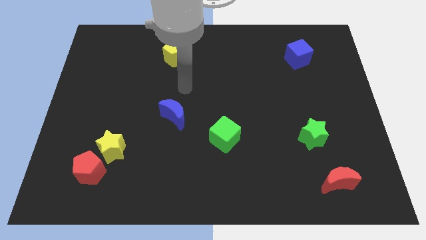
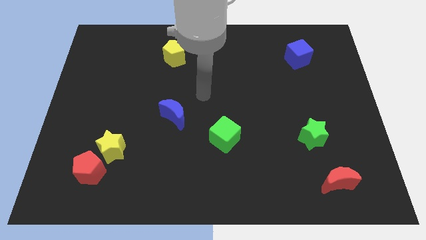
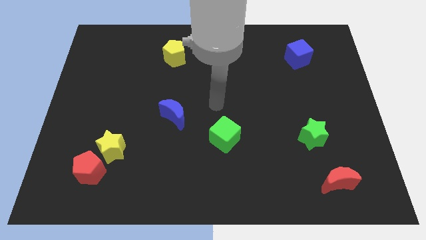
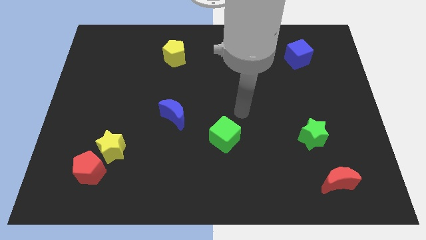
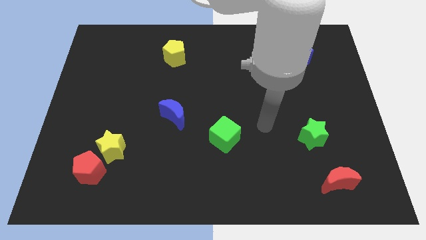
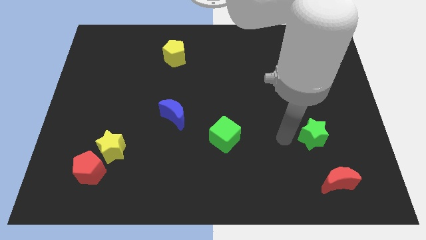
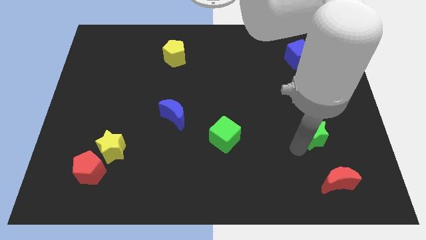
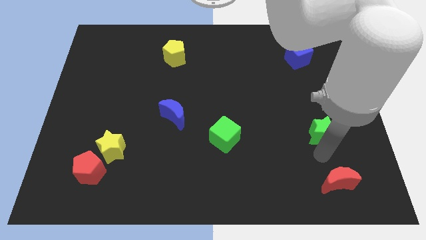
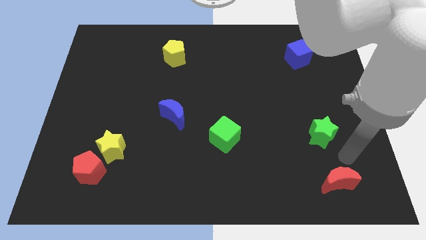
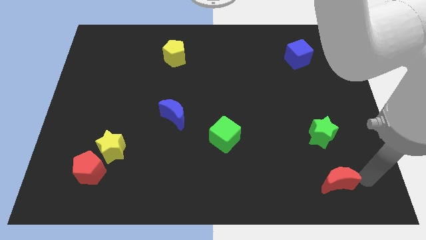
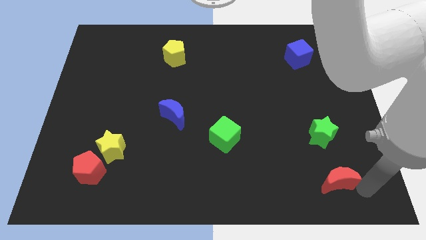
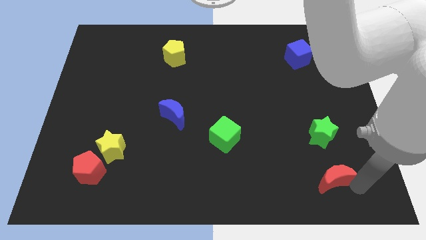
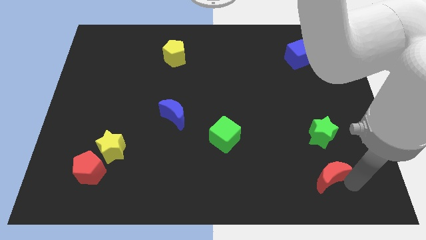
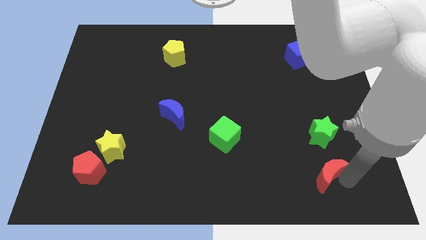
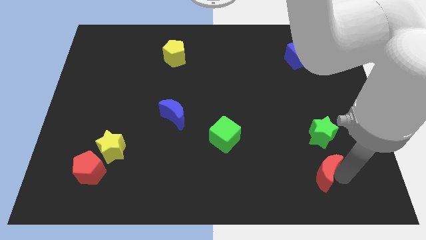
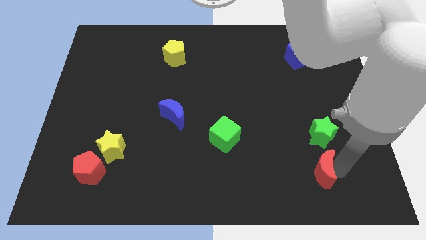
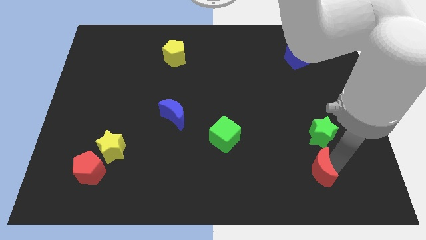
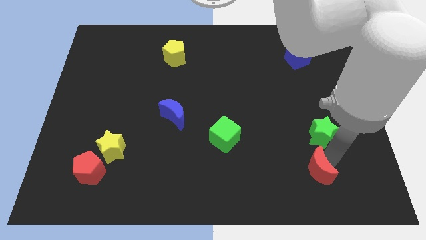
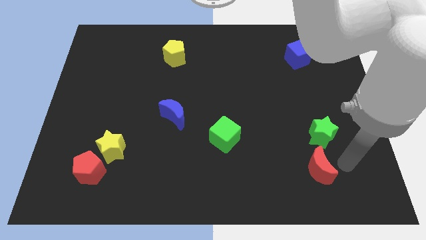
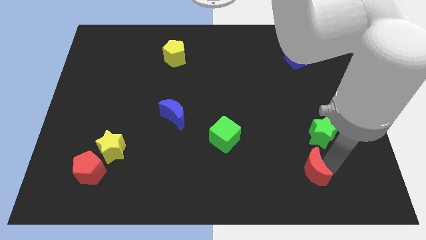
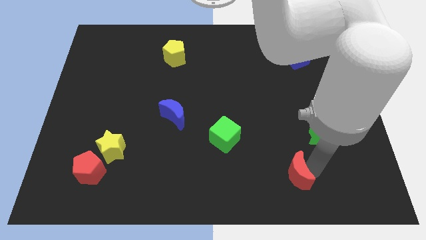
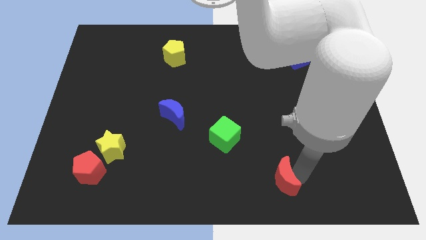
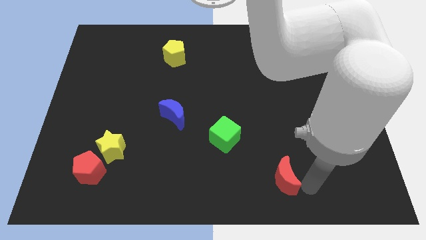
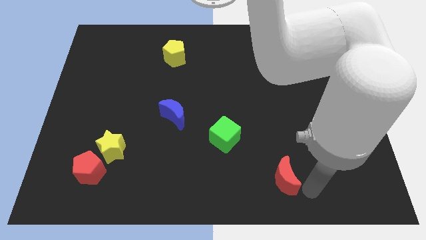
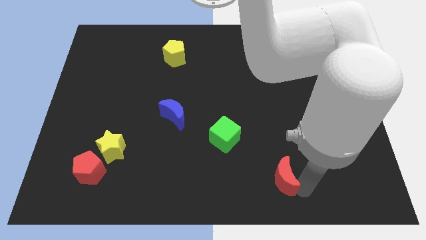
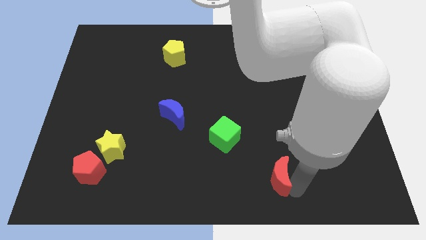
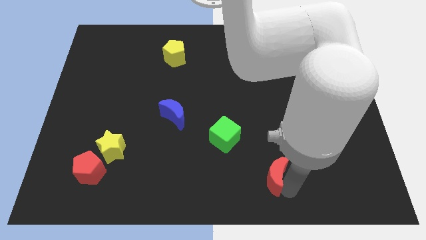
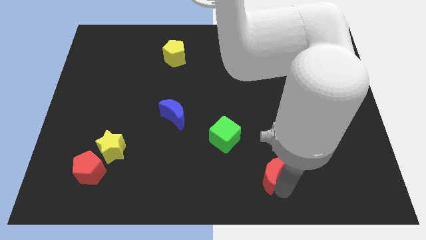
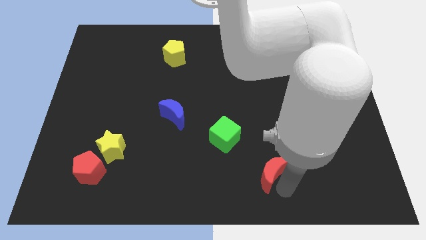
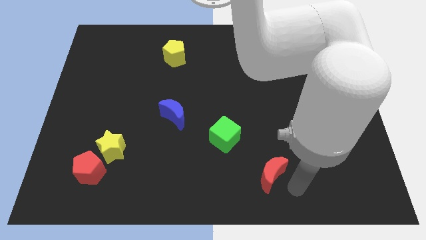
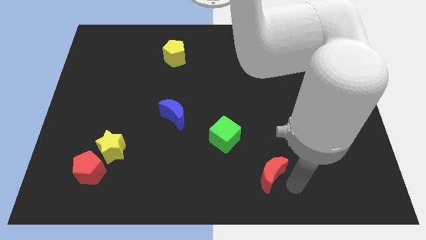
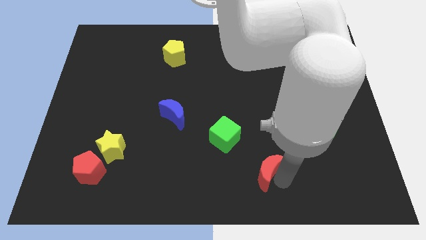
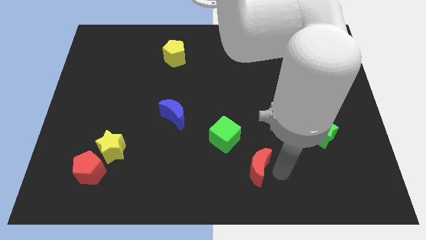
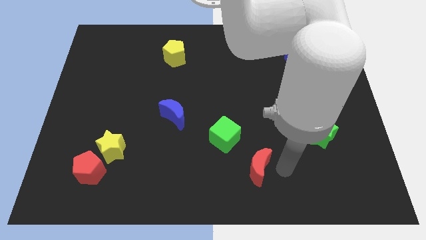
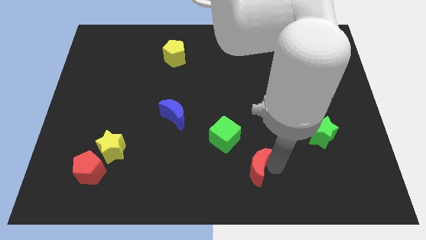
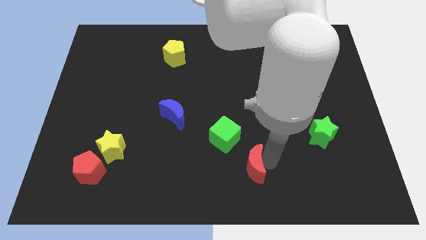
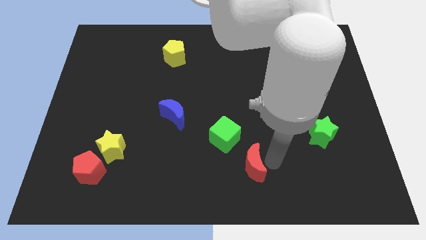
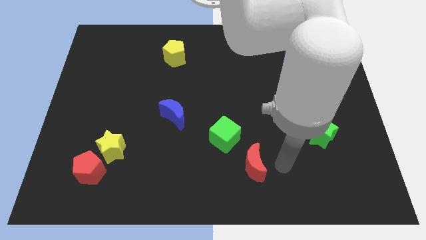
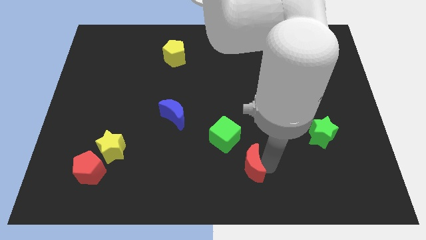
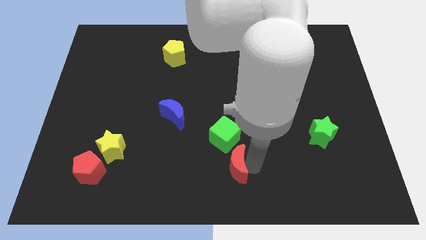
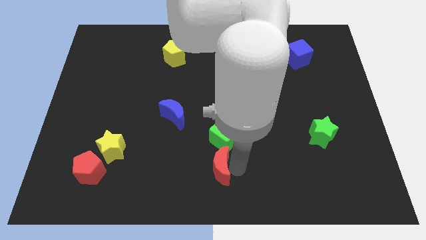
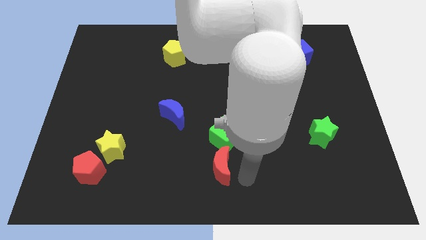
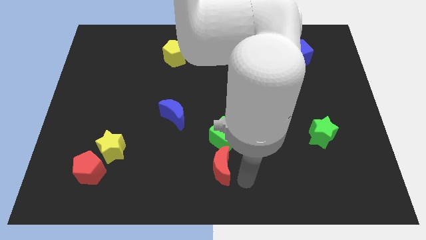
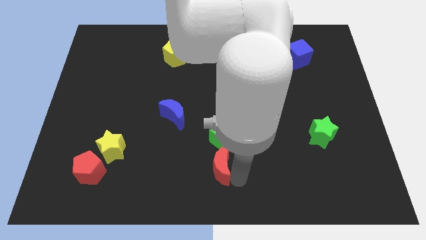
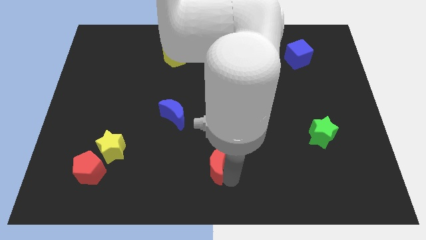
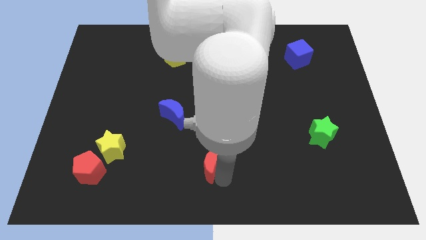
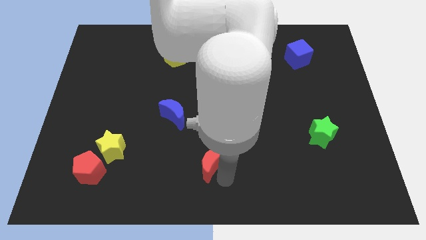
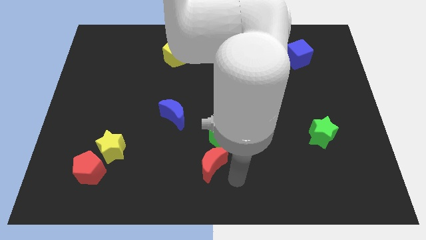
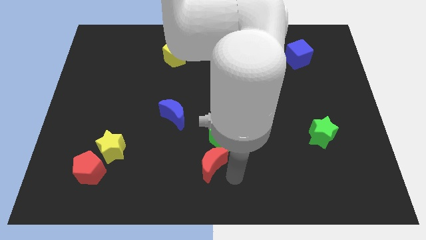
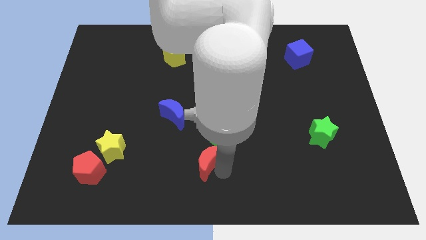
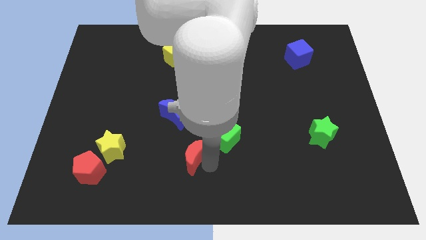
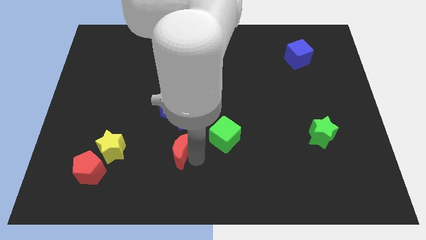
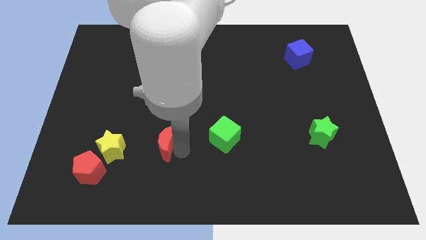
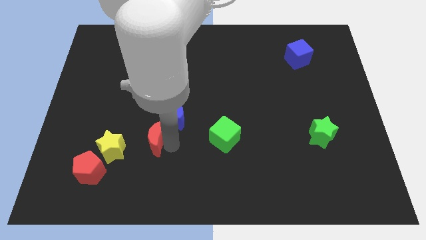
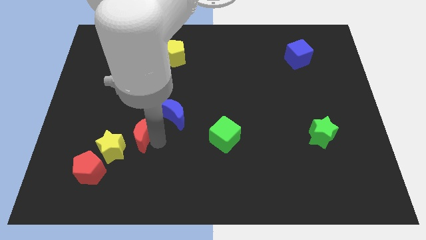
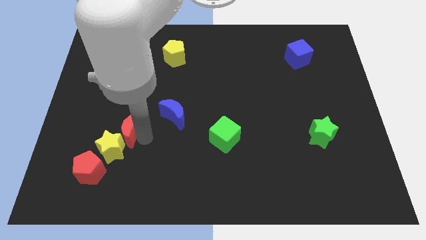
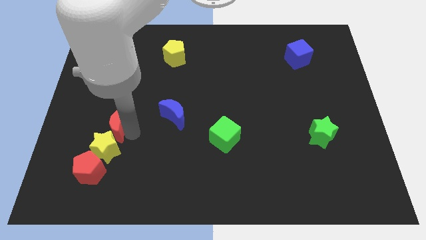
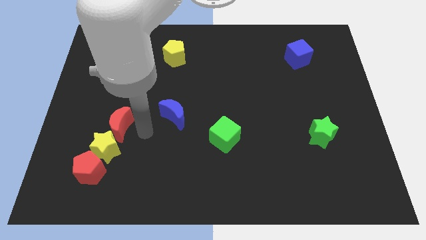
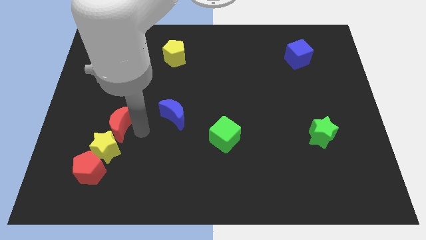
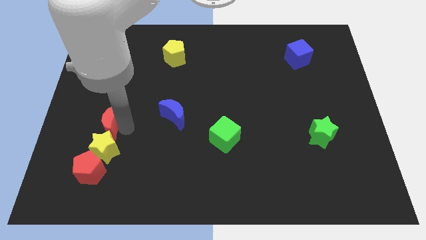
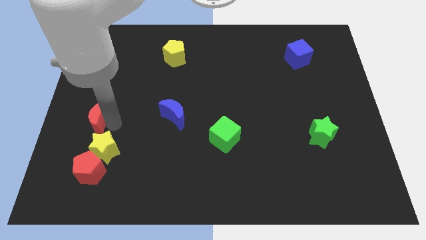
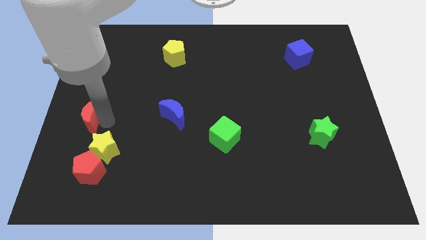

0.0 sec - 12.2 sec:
move the red moon to the center left
